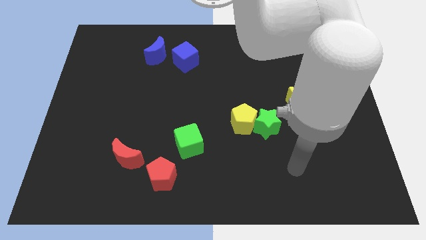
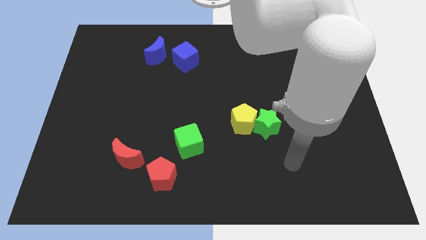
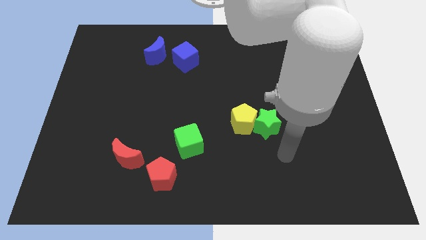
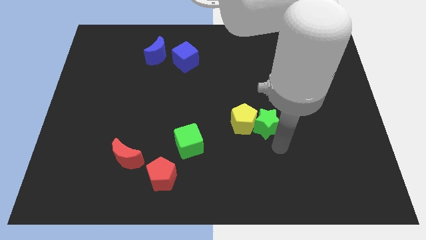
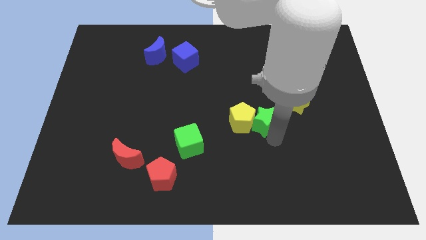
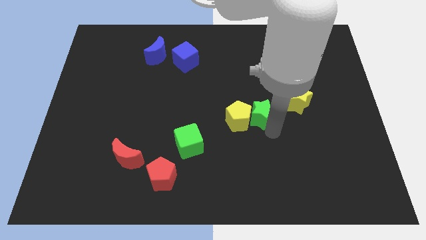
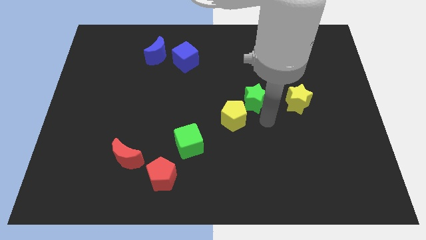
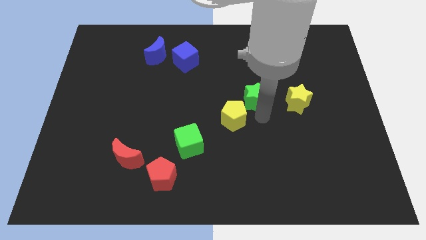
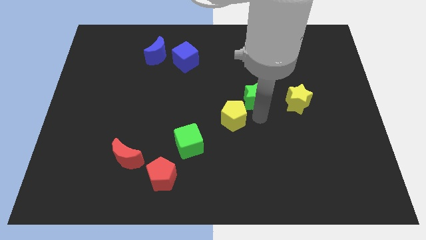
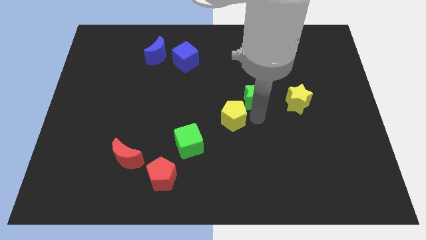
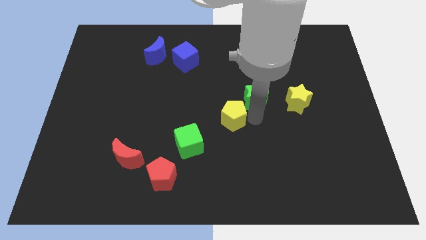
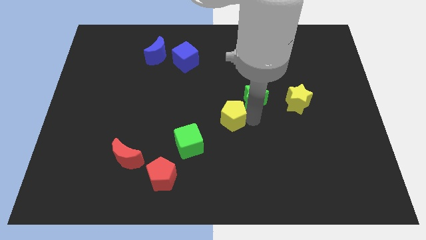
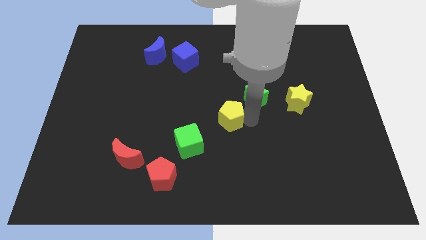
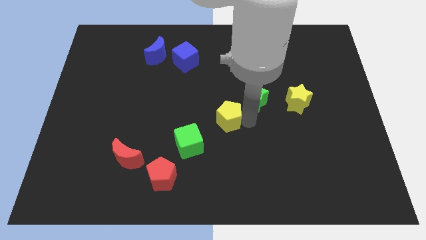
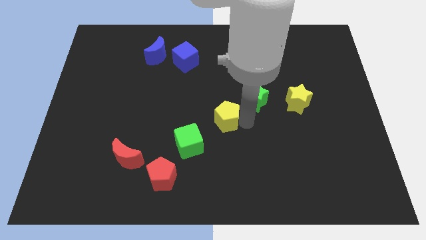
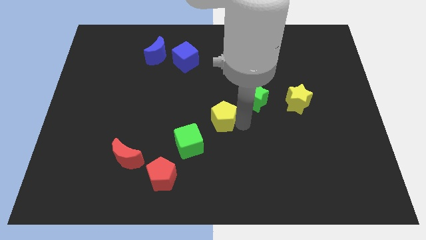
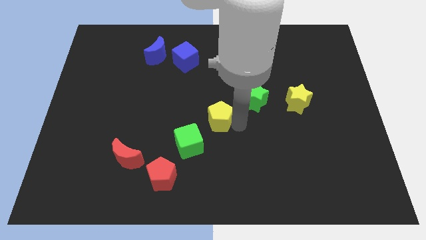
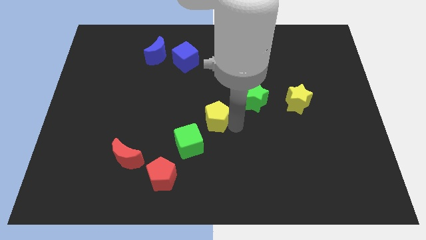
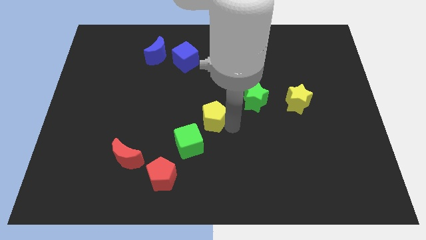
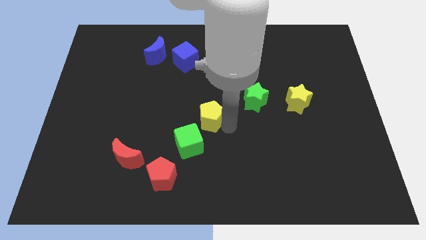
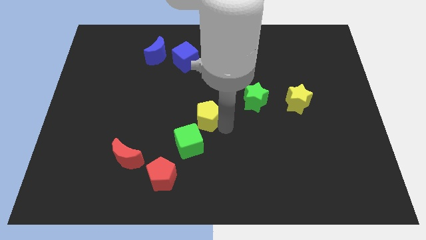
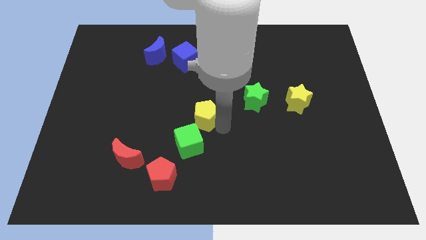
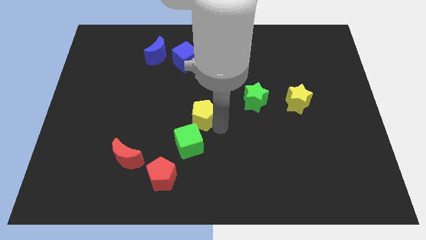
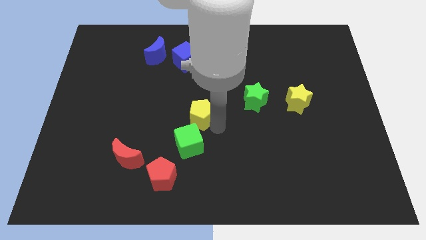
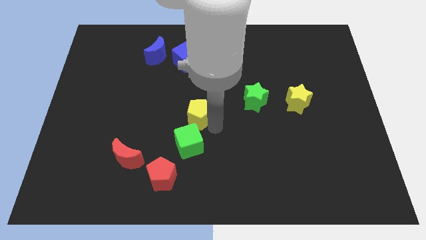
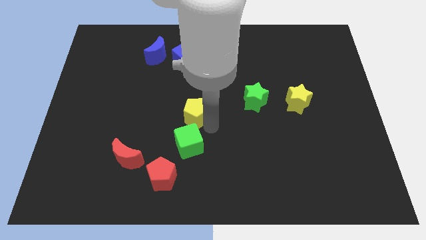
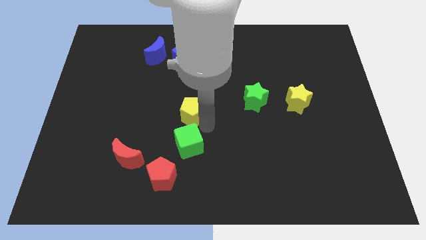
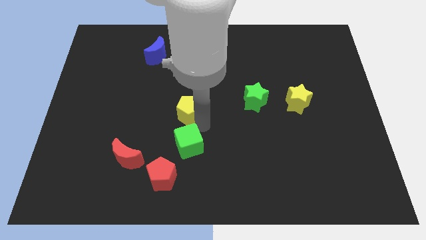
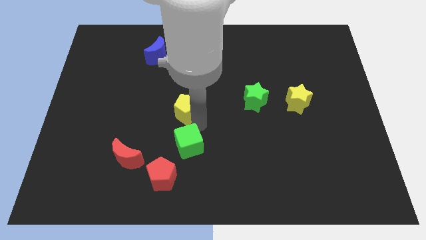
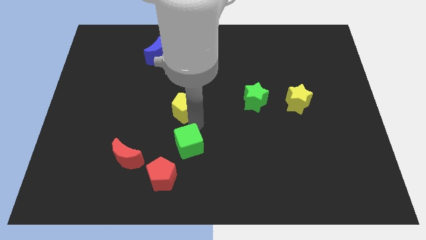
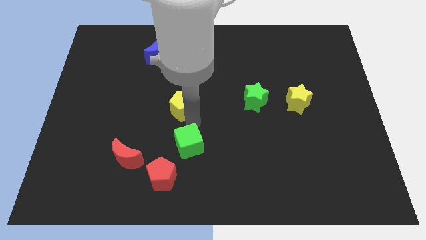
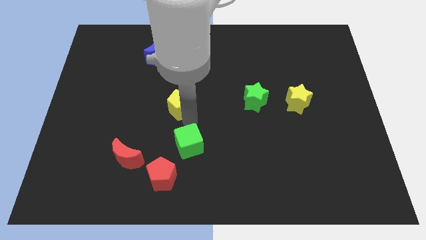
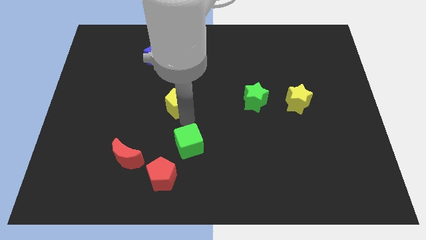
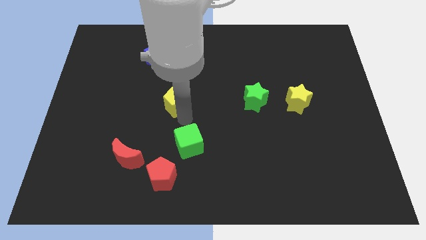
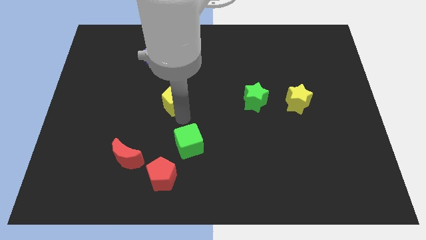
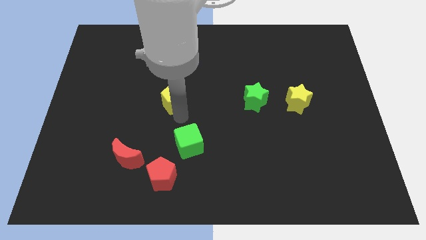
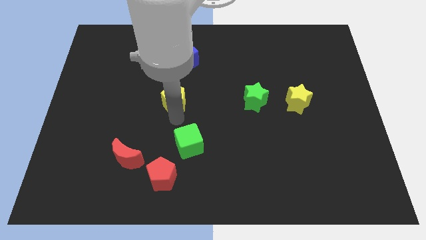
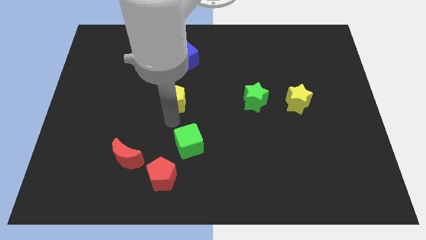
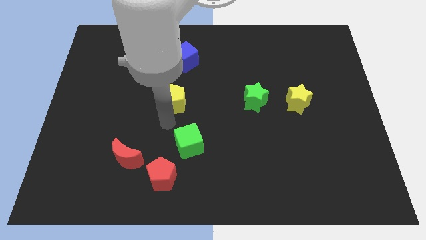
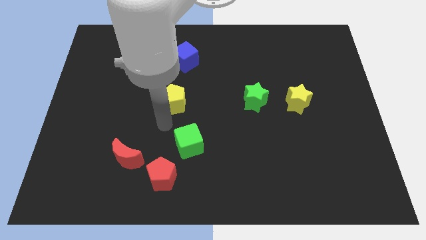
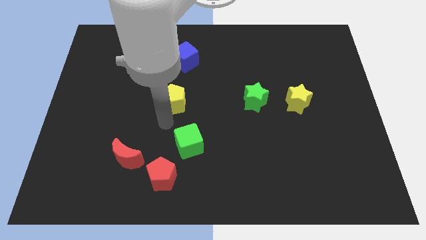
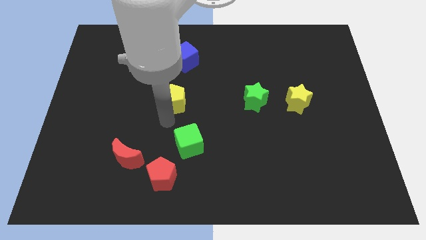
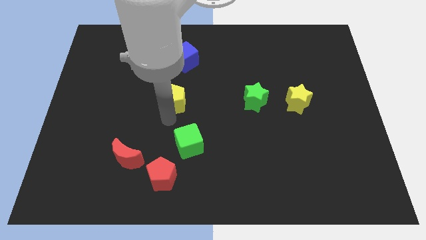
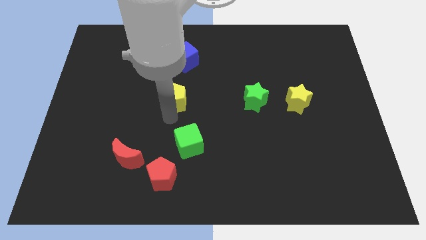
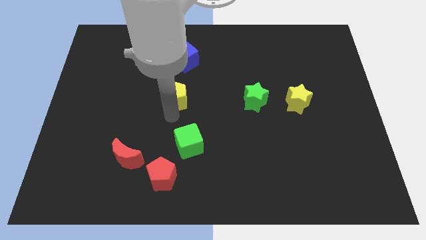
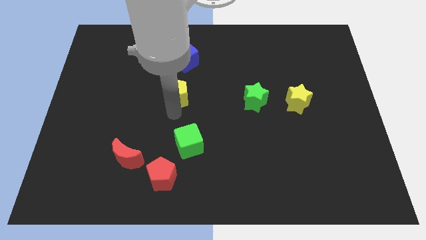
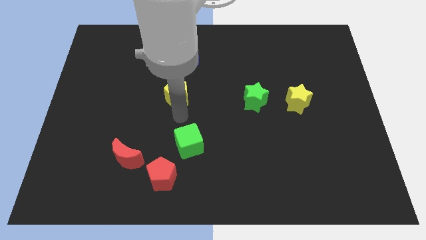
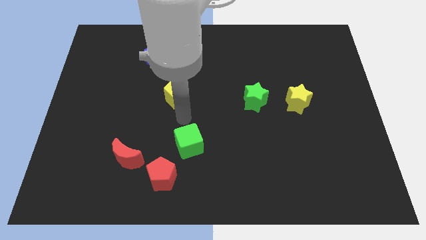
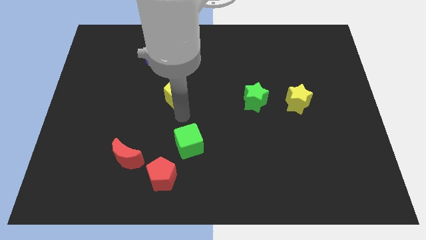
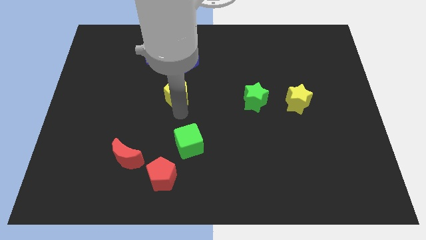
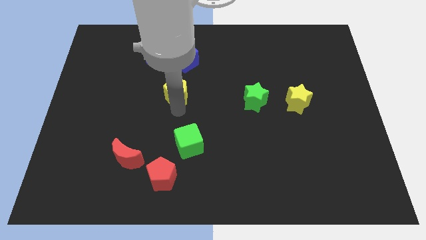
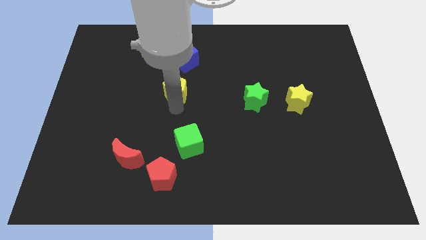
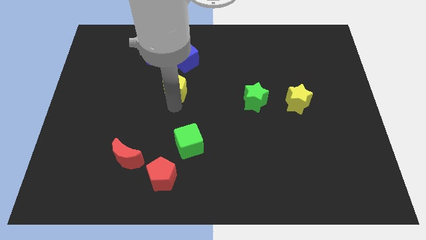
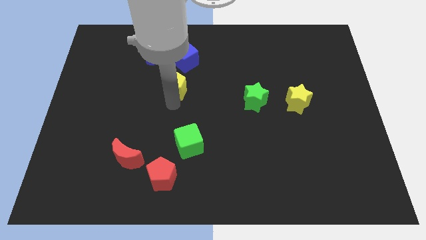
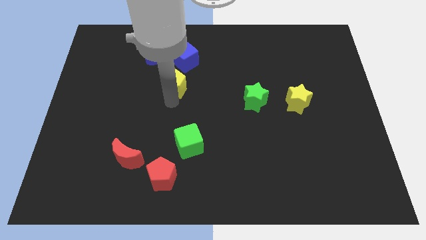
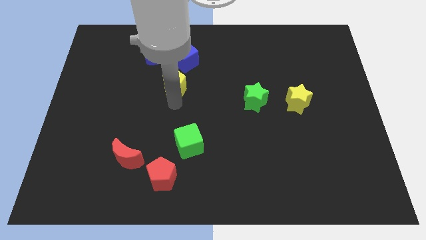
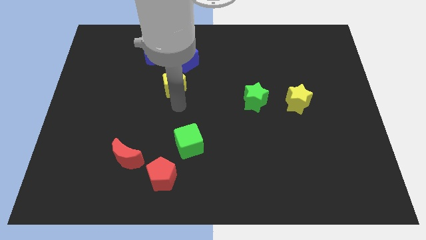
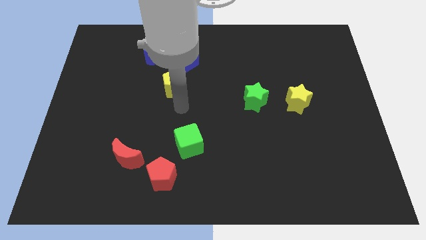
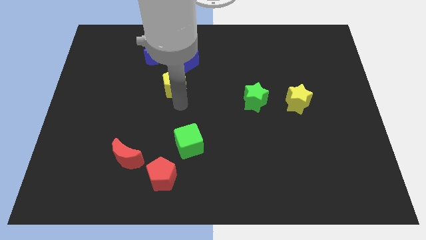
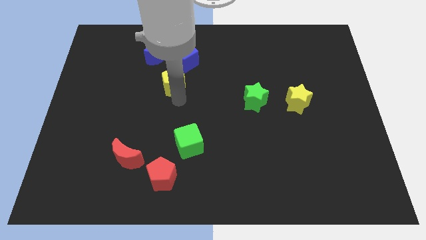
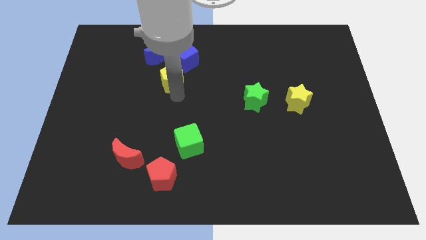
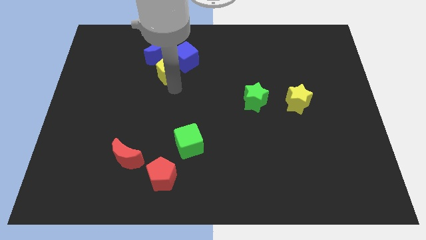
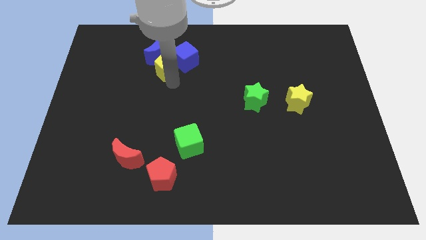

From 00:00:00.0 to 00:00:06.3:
slide the yellow pentagon next to the blue moon
